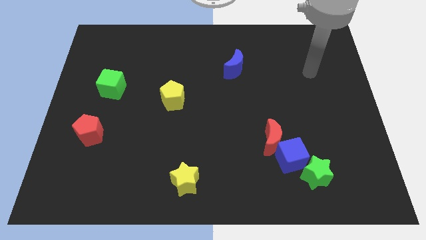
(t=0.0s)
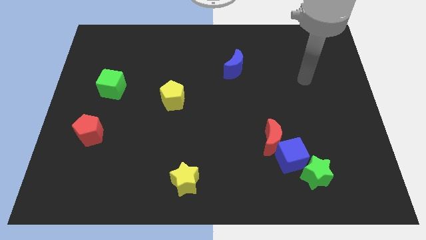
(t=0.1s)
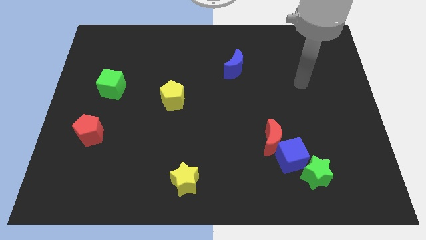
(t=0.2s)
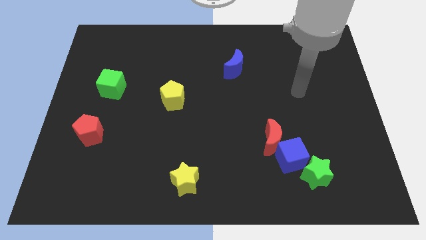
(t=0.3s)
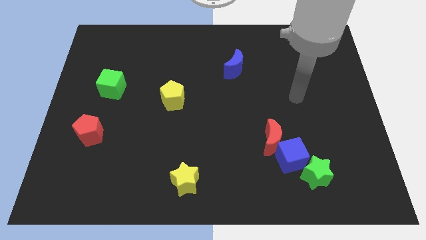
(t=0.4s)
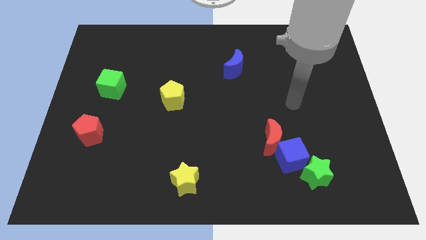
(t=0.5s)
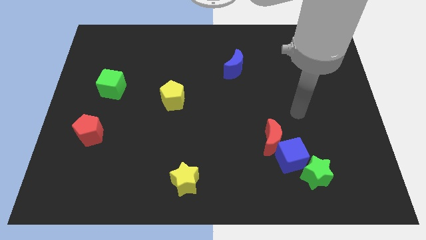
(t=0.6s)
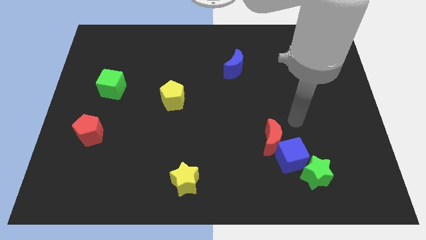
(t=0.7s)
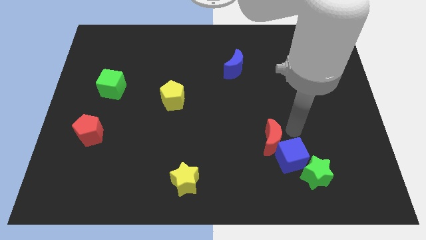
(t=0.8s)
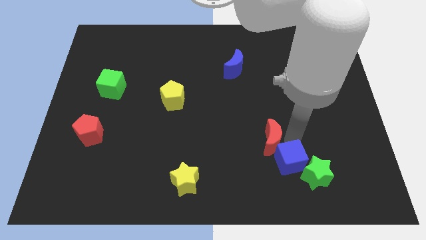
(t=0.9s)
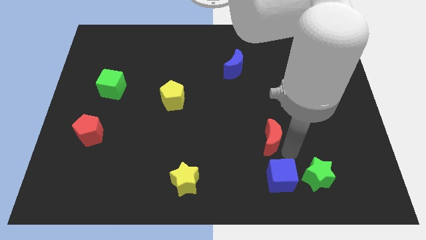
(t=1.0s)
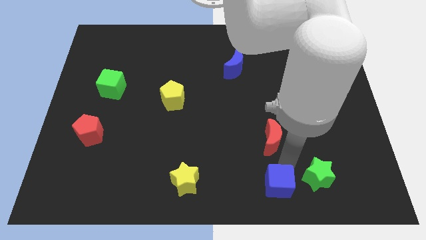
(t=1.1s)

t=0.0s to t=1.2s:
move the red moon away from the blue cube

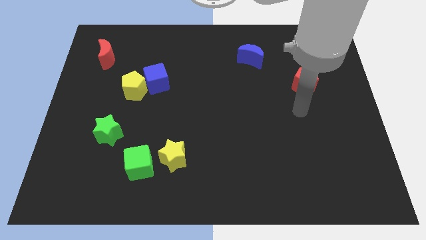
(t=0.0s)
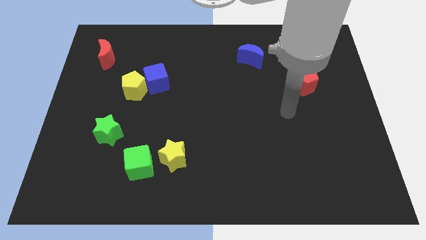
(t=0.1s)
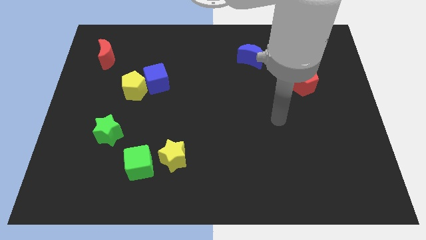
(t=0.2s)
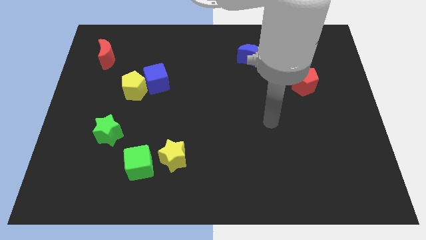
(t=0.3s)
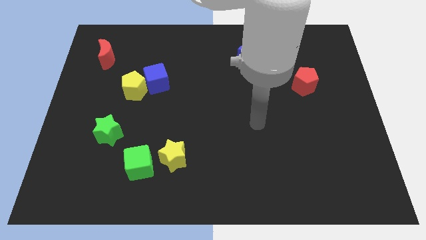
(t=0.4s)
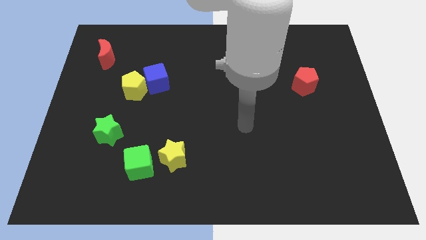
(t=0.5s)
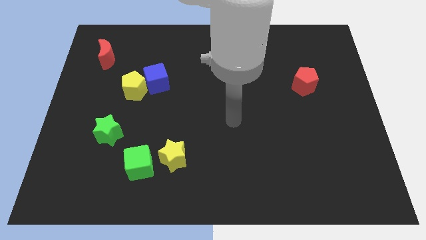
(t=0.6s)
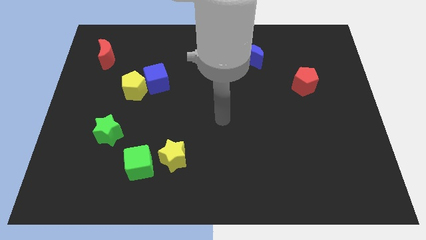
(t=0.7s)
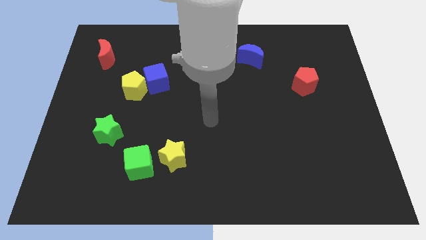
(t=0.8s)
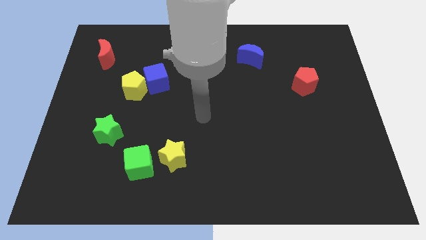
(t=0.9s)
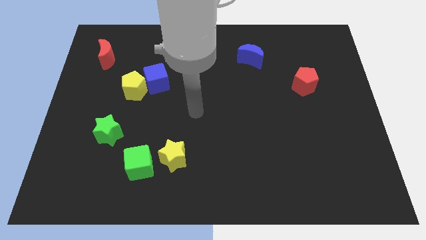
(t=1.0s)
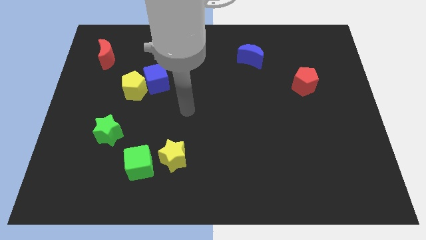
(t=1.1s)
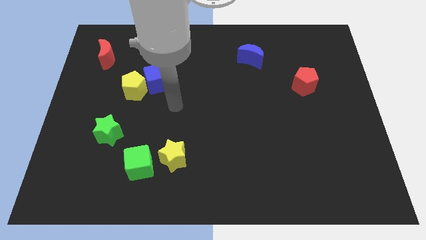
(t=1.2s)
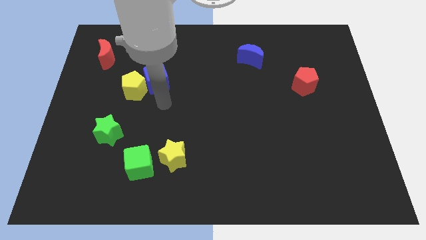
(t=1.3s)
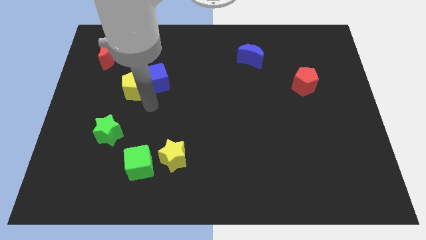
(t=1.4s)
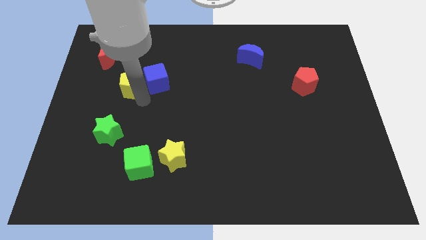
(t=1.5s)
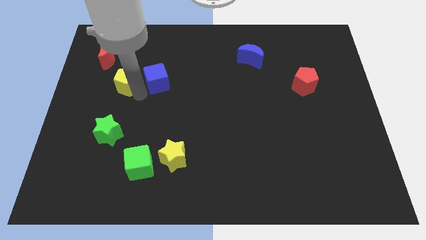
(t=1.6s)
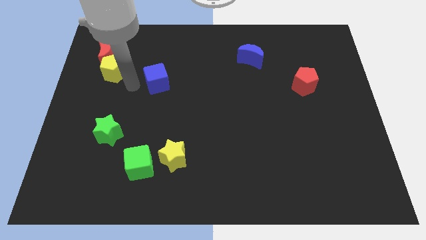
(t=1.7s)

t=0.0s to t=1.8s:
pull the blue cube apart from the yellow pentagon

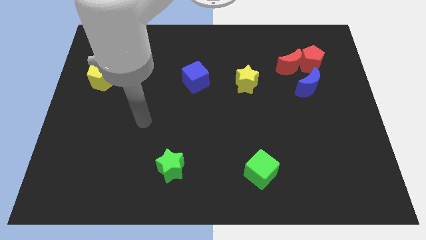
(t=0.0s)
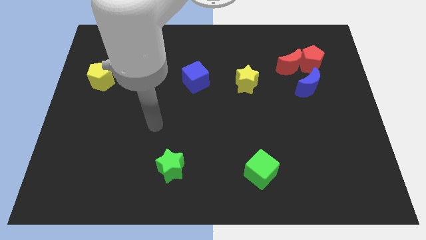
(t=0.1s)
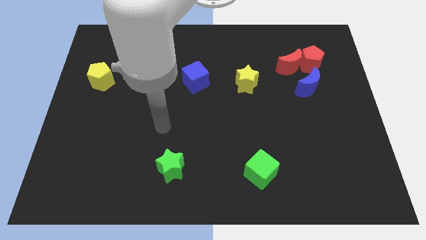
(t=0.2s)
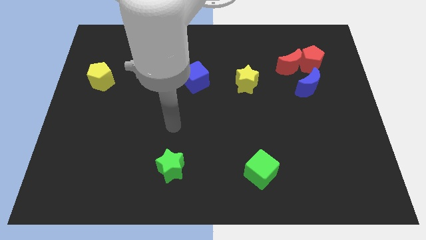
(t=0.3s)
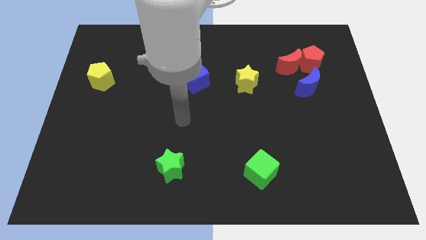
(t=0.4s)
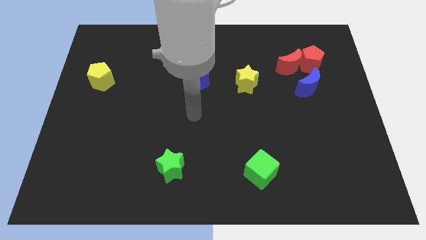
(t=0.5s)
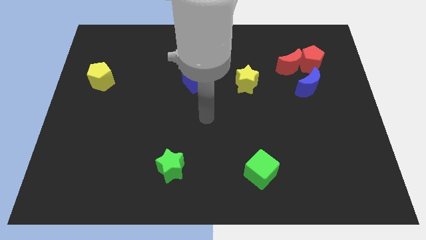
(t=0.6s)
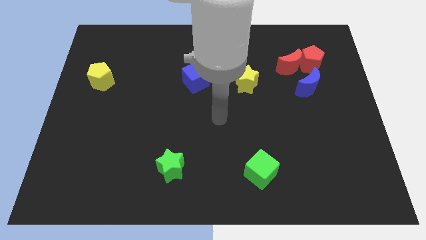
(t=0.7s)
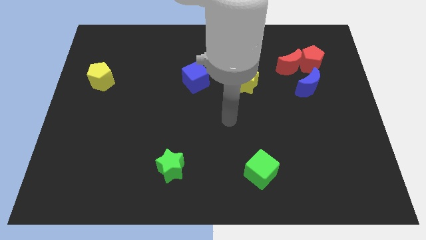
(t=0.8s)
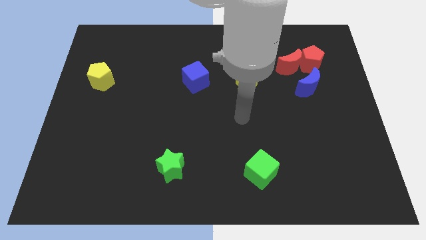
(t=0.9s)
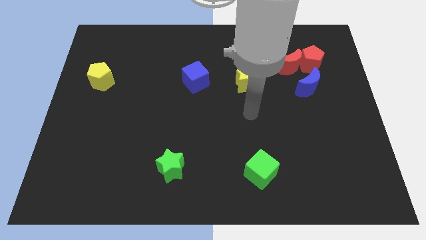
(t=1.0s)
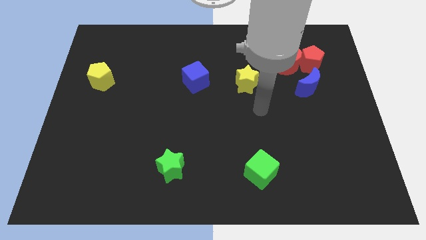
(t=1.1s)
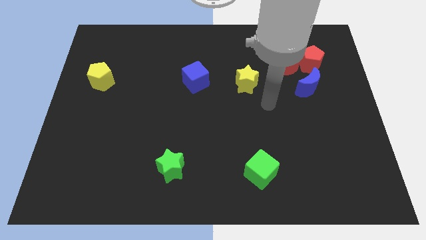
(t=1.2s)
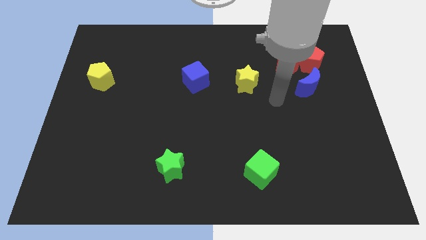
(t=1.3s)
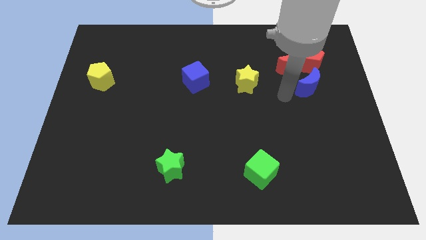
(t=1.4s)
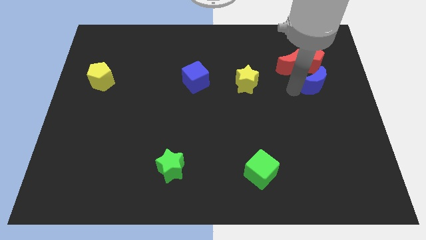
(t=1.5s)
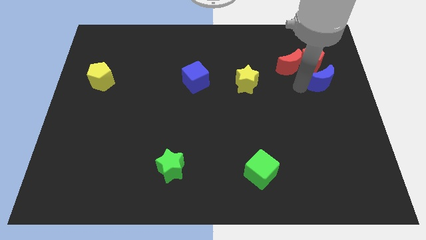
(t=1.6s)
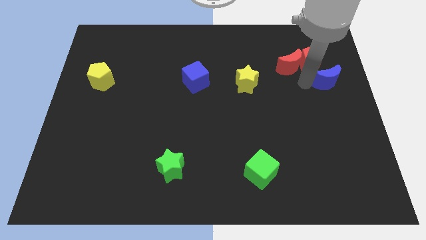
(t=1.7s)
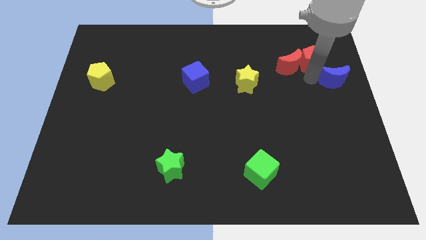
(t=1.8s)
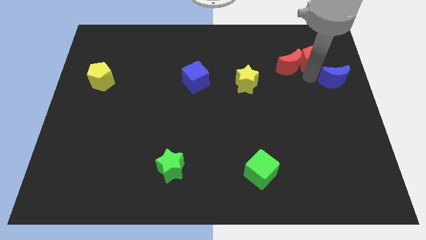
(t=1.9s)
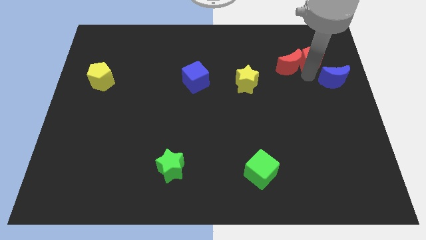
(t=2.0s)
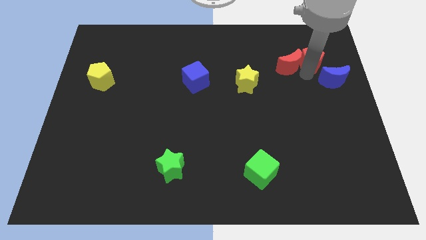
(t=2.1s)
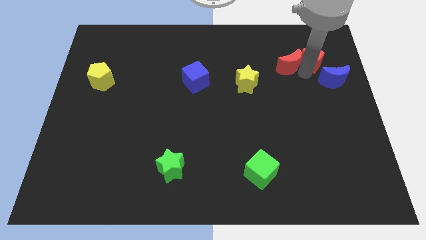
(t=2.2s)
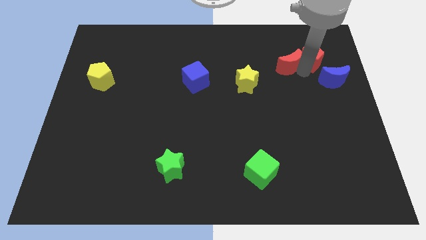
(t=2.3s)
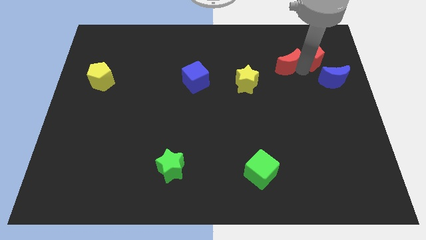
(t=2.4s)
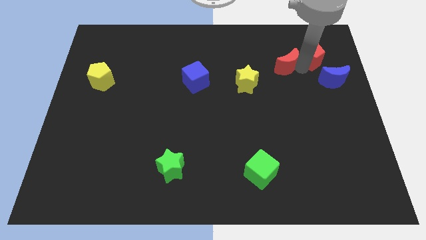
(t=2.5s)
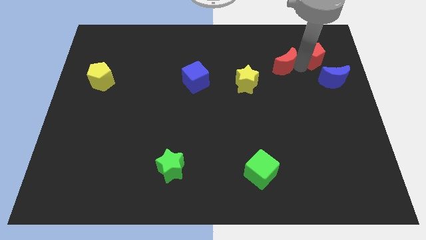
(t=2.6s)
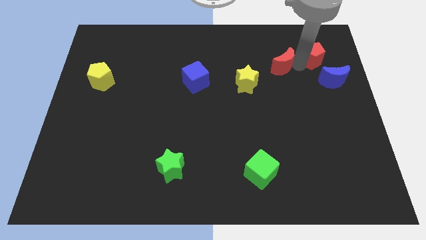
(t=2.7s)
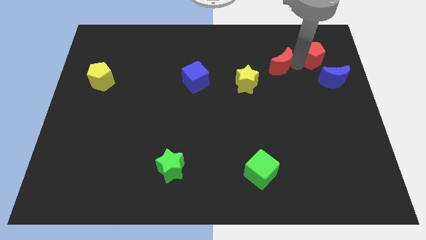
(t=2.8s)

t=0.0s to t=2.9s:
pull the red moon apart from the red pentagon and blue moon

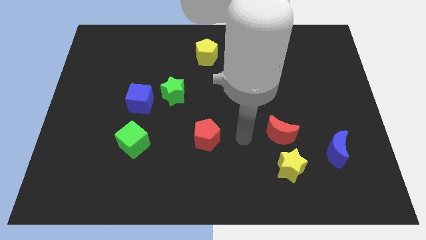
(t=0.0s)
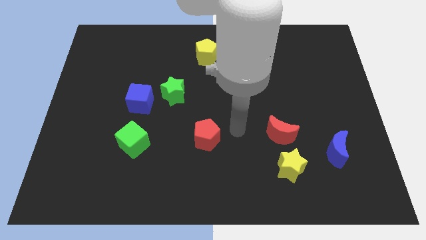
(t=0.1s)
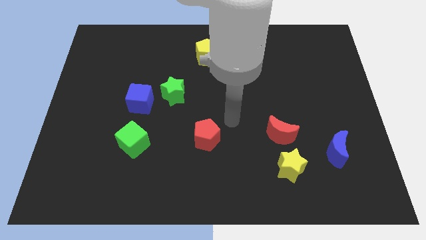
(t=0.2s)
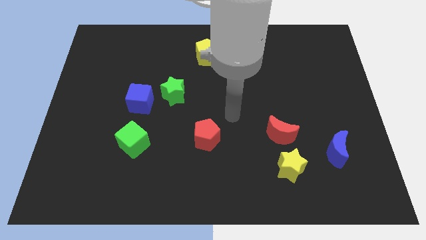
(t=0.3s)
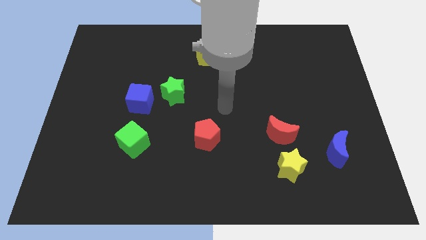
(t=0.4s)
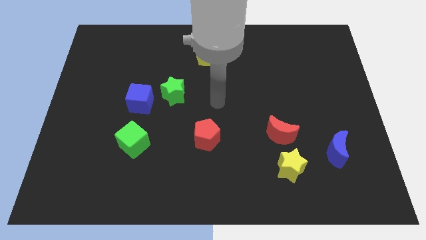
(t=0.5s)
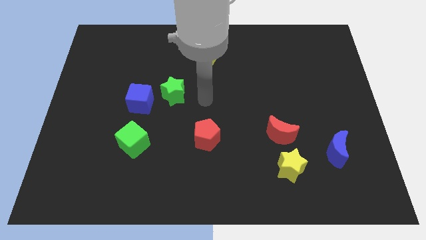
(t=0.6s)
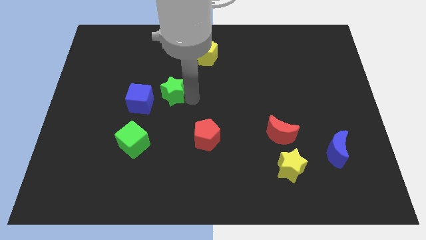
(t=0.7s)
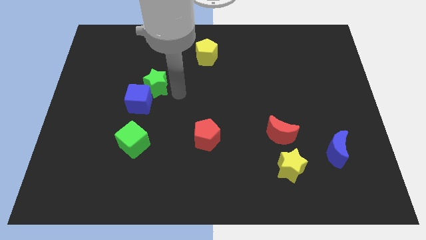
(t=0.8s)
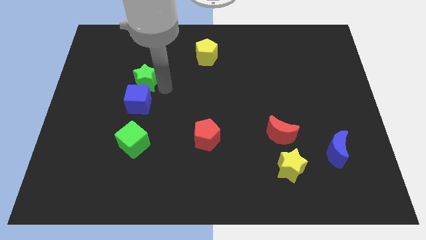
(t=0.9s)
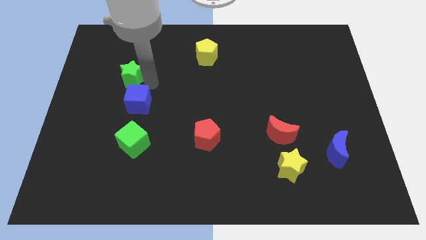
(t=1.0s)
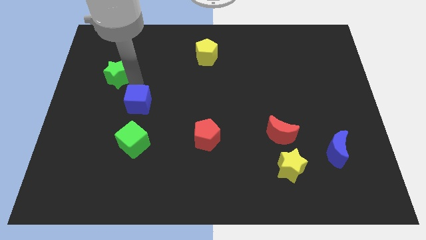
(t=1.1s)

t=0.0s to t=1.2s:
separate the blue cube from the green star

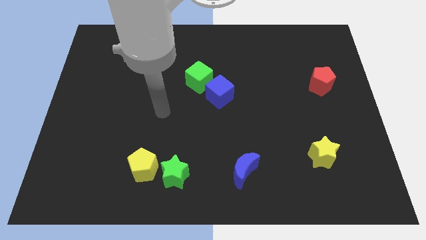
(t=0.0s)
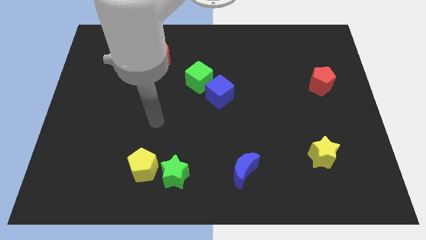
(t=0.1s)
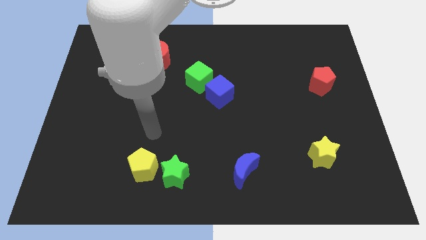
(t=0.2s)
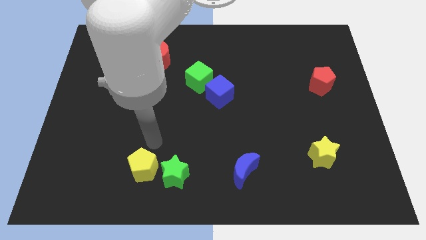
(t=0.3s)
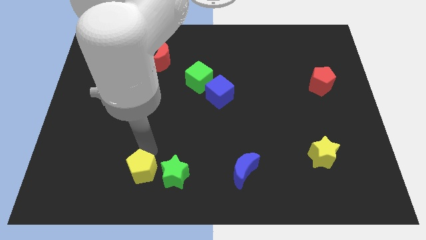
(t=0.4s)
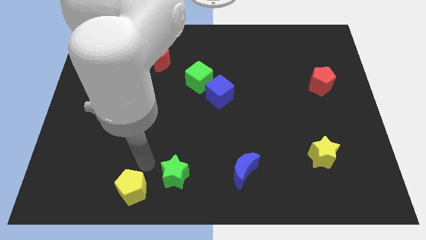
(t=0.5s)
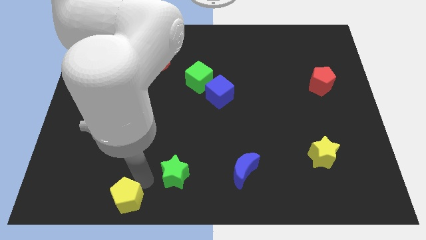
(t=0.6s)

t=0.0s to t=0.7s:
move the green star away from the yellow pentagon

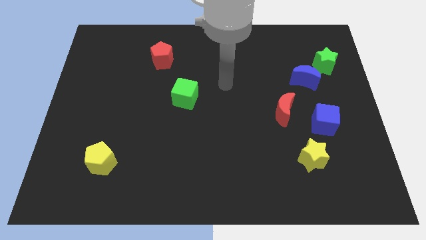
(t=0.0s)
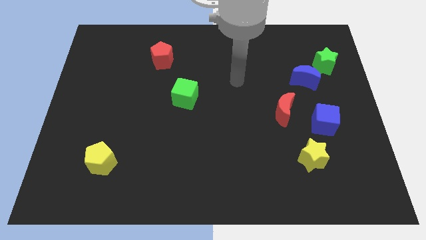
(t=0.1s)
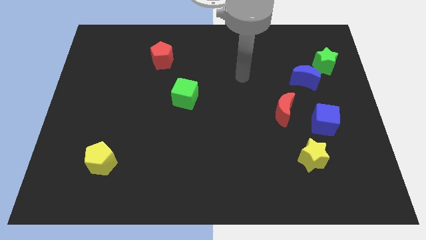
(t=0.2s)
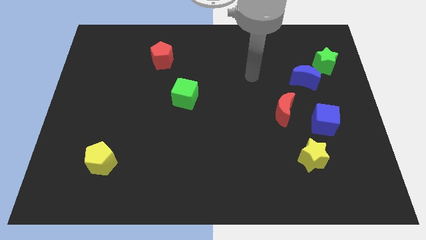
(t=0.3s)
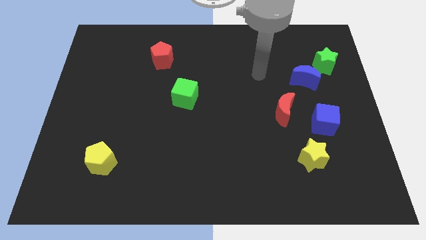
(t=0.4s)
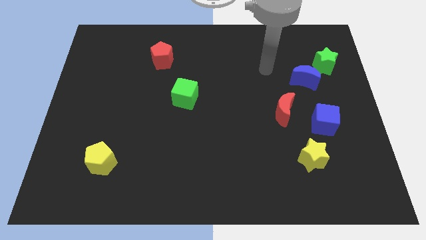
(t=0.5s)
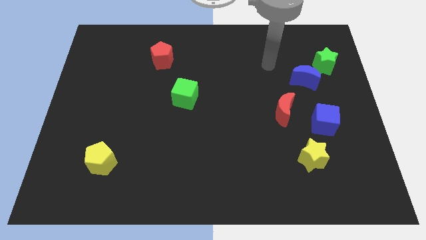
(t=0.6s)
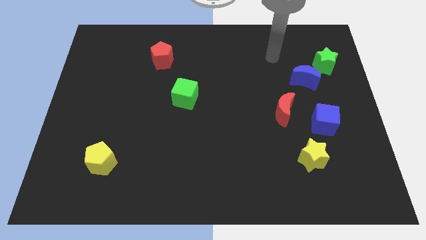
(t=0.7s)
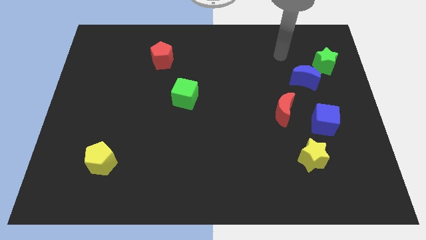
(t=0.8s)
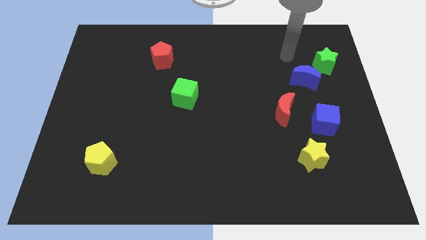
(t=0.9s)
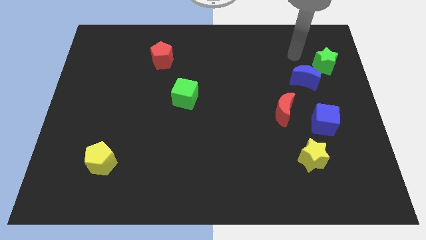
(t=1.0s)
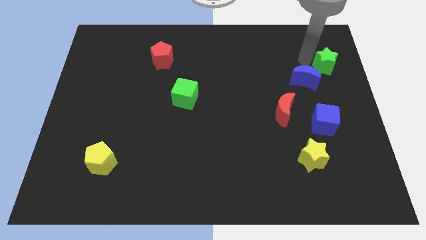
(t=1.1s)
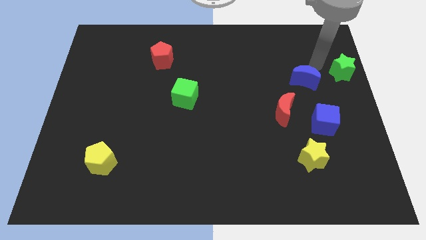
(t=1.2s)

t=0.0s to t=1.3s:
pull the blue moon apart from the green star

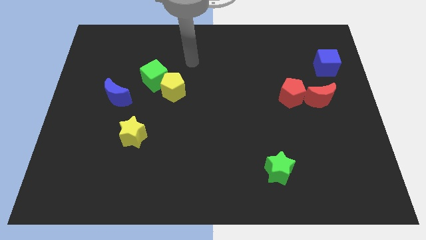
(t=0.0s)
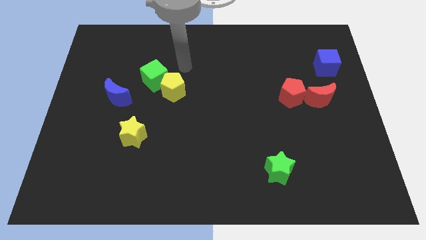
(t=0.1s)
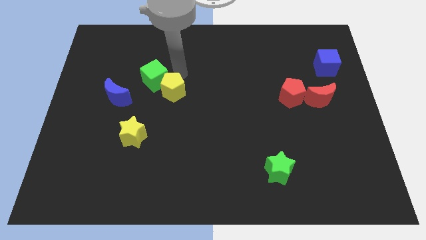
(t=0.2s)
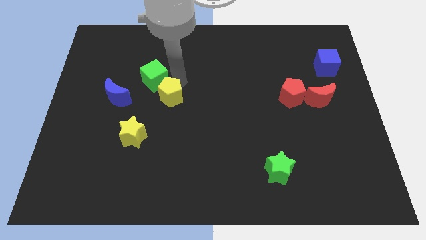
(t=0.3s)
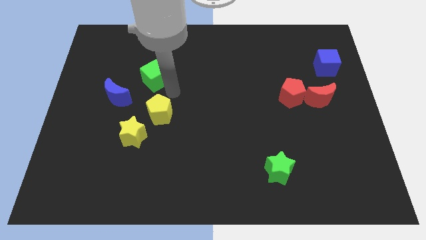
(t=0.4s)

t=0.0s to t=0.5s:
separate the green cube from the yellow pentagon
